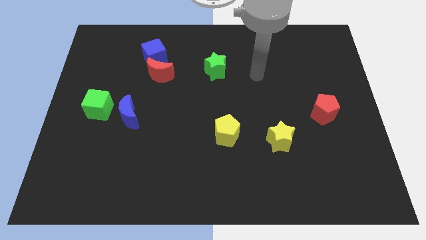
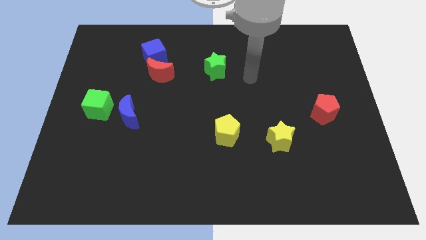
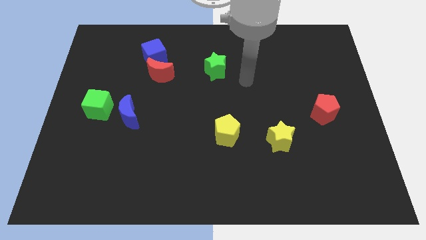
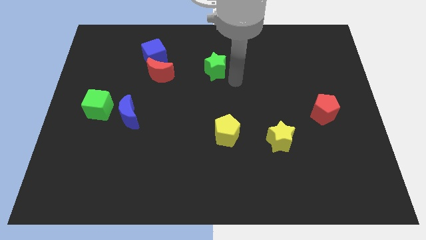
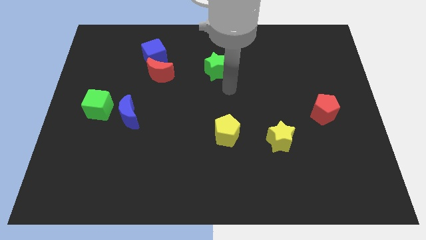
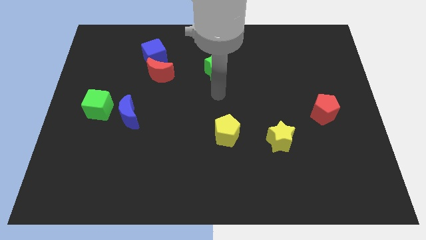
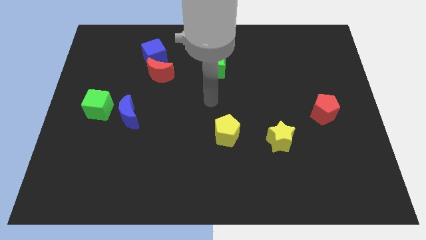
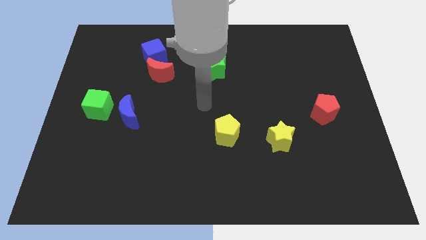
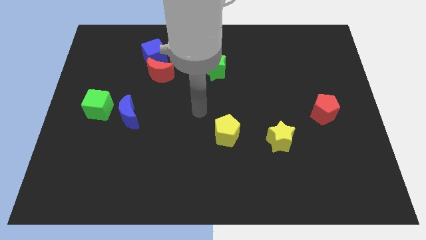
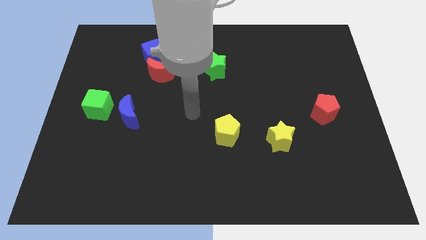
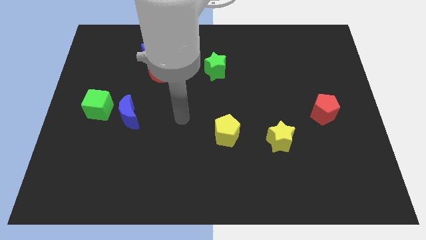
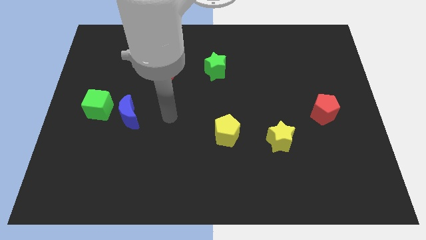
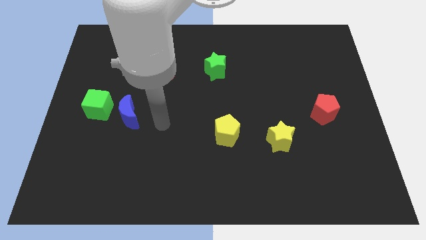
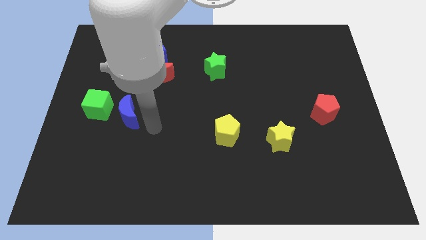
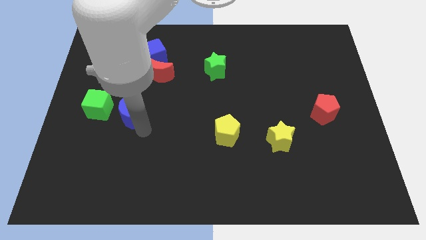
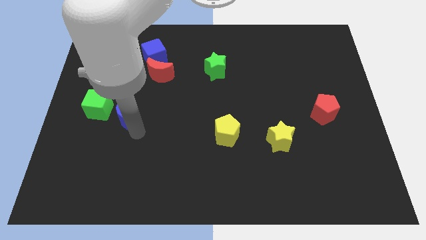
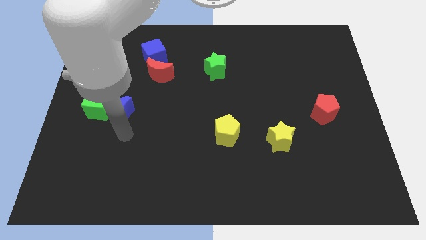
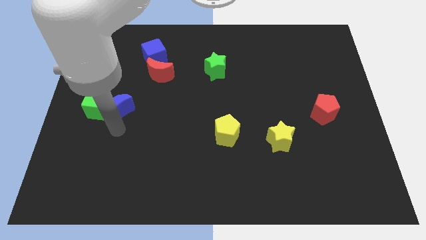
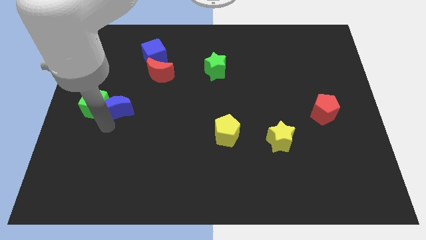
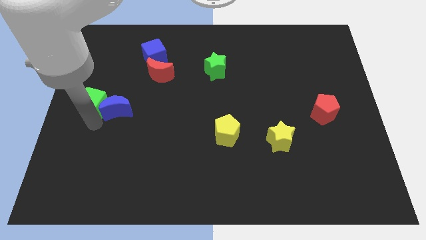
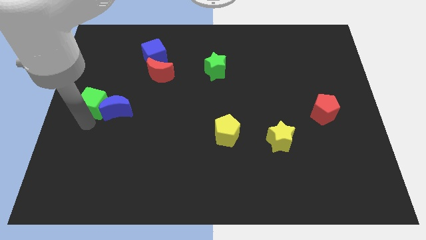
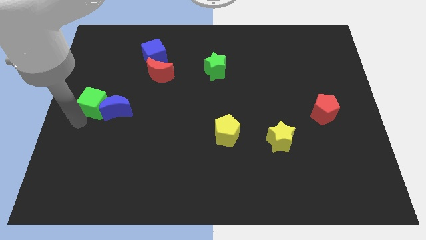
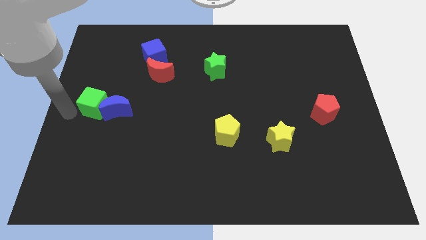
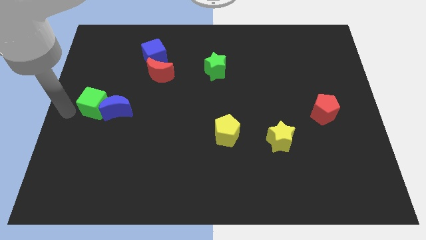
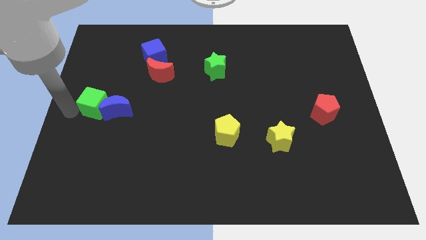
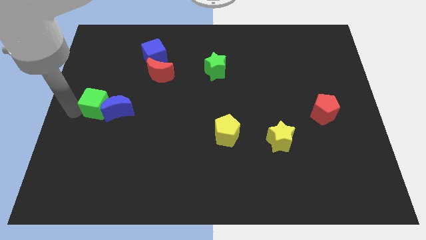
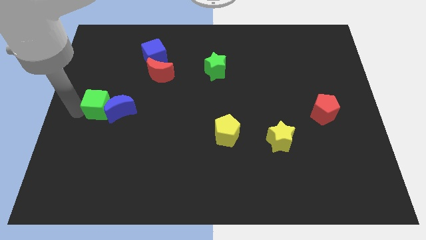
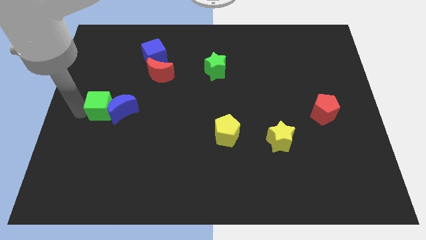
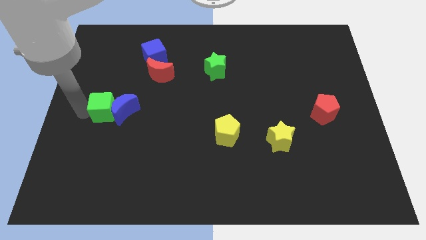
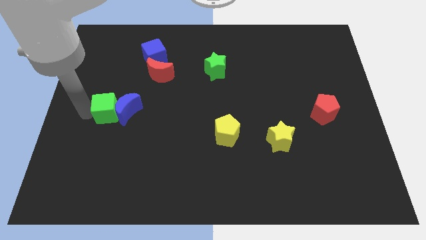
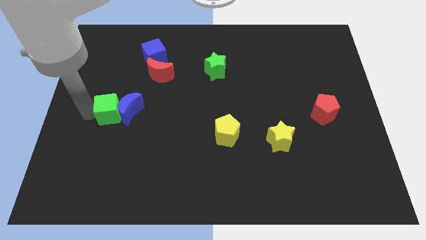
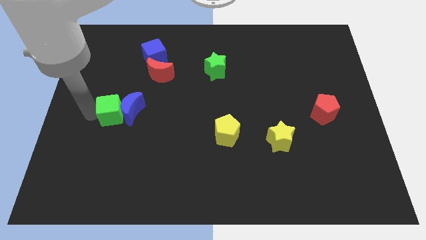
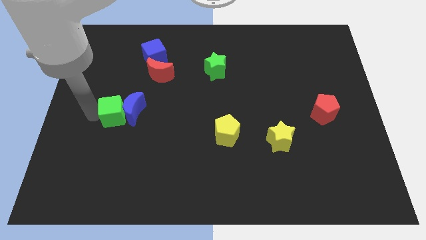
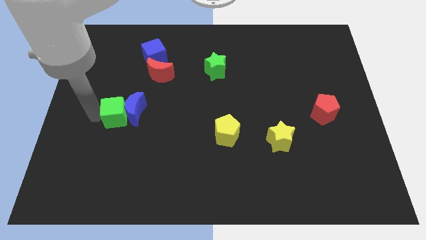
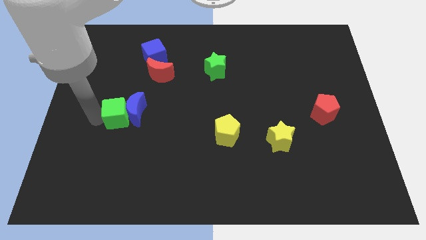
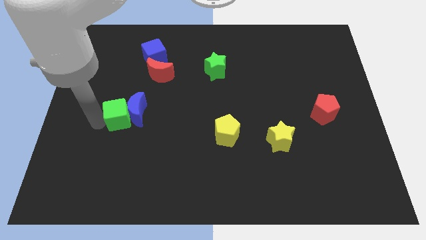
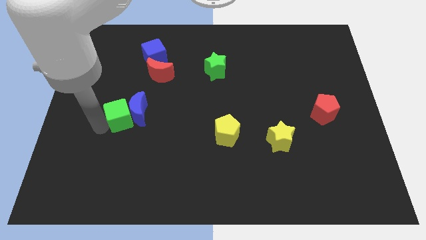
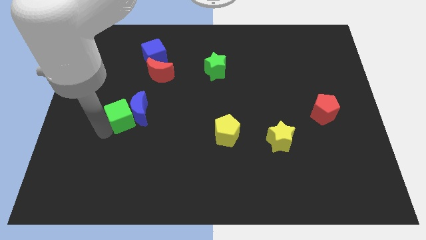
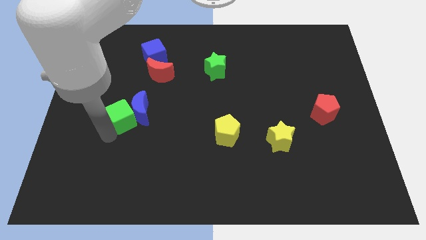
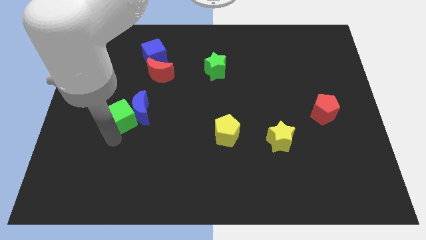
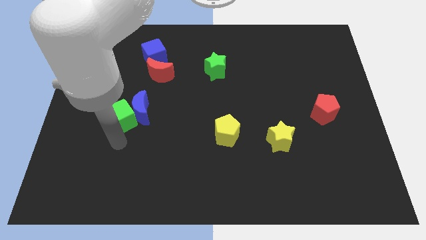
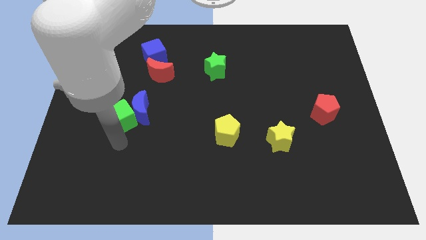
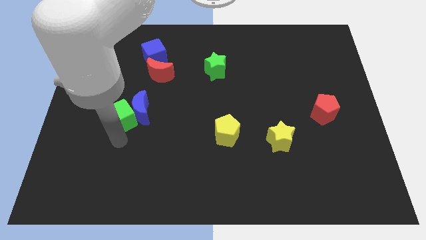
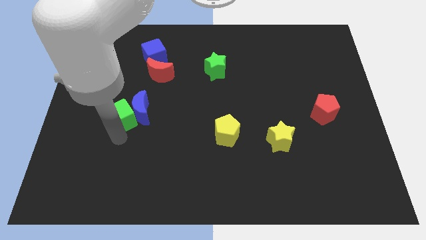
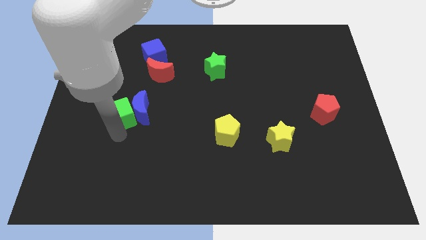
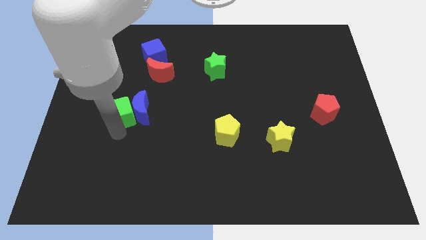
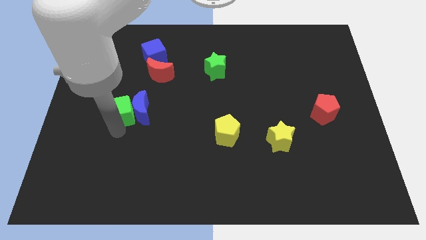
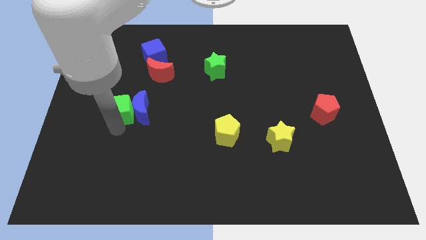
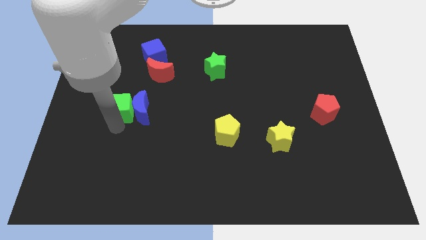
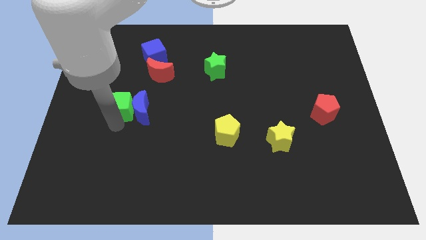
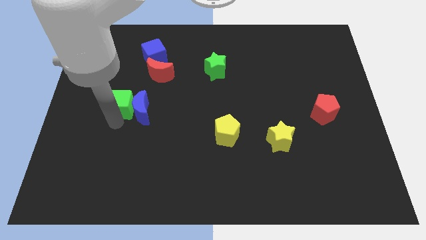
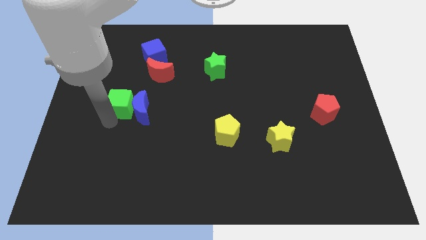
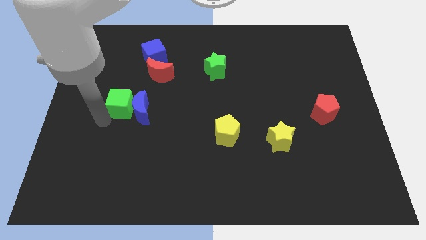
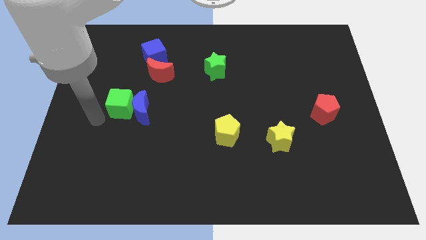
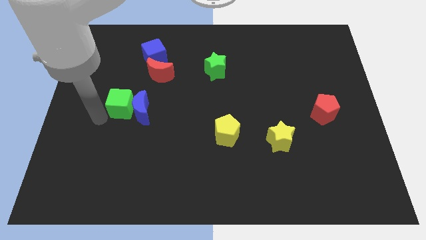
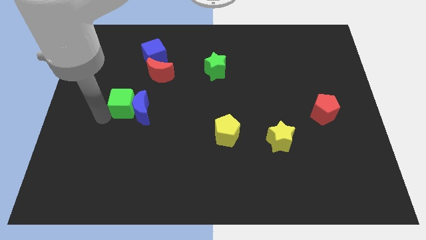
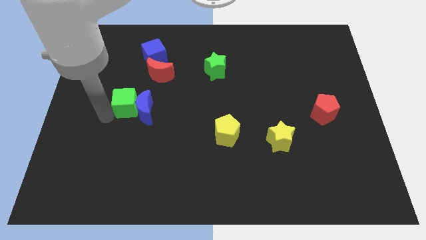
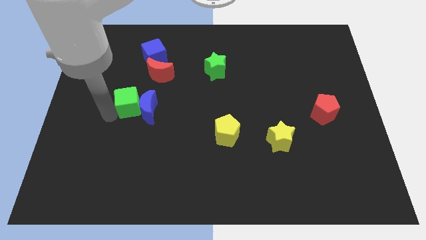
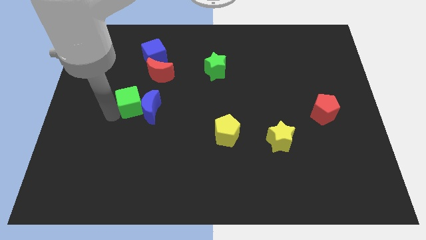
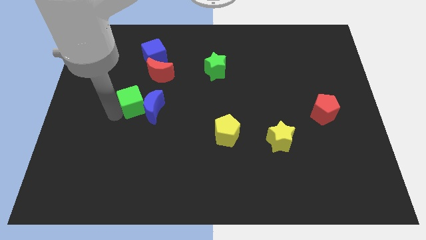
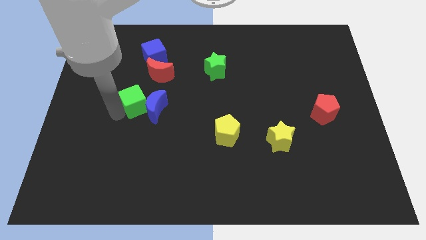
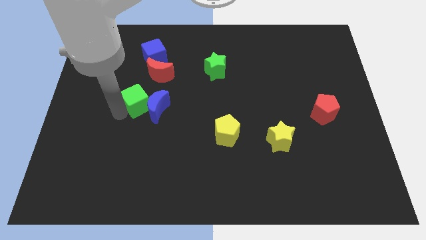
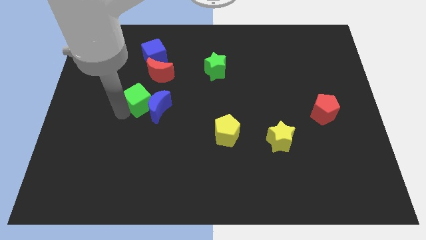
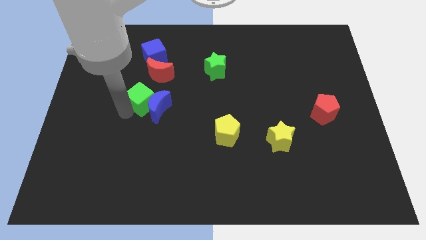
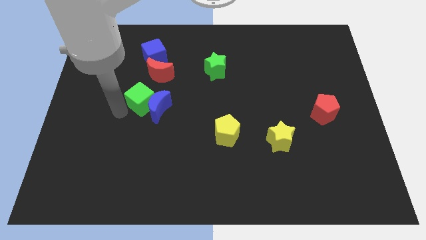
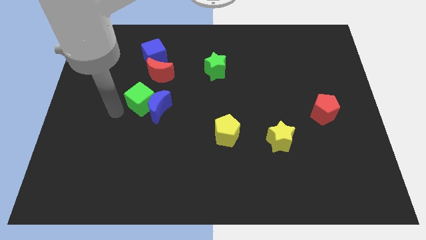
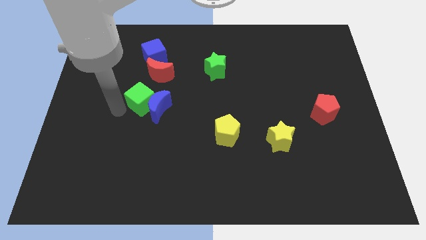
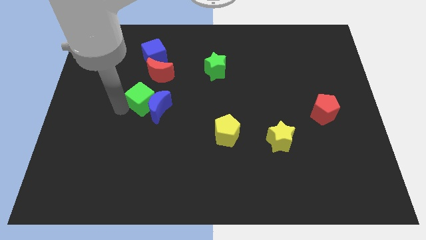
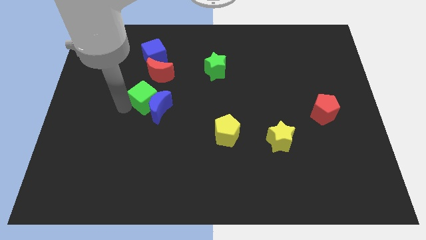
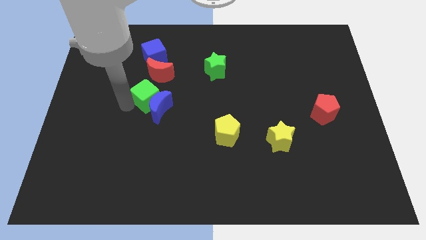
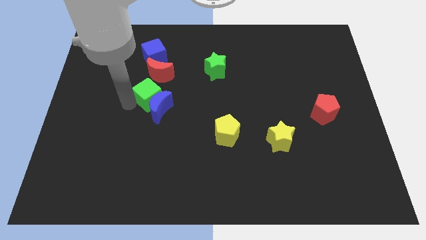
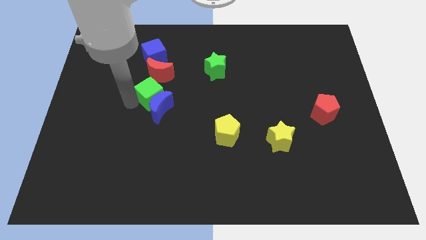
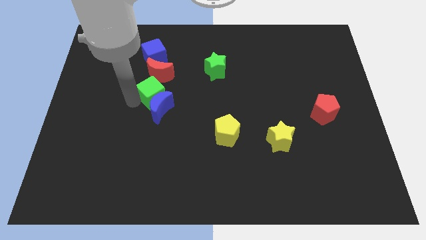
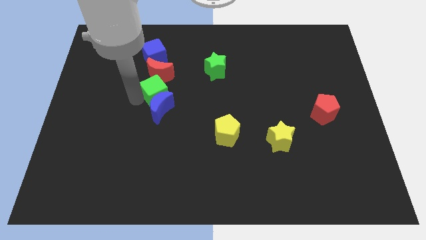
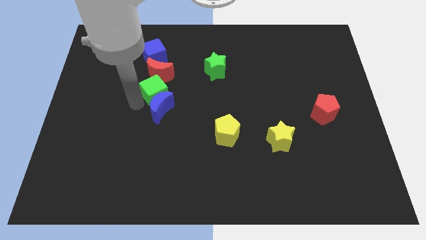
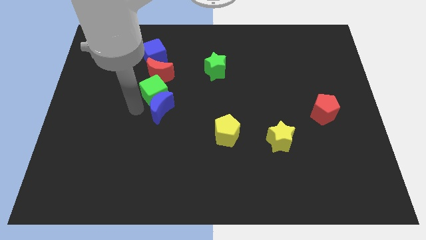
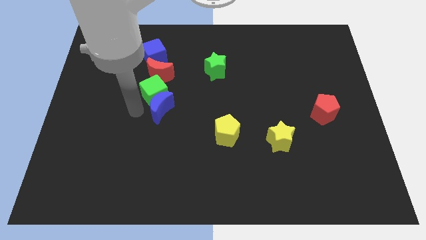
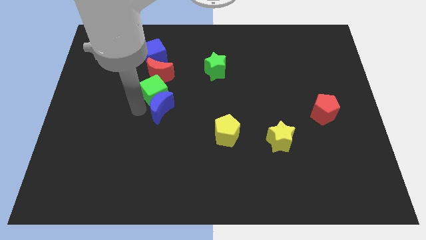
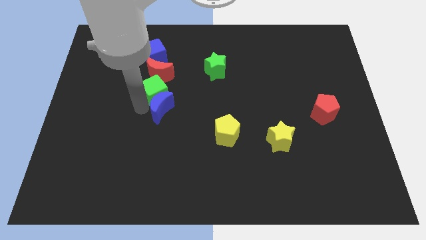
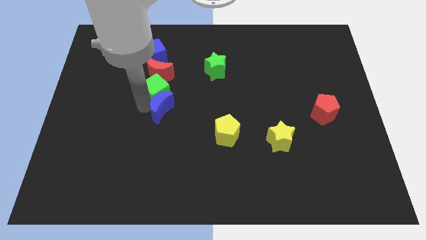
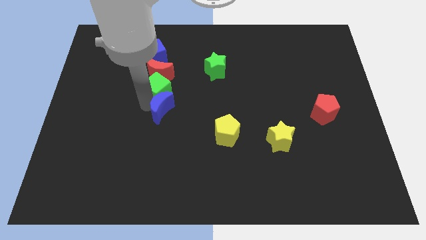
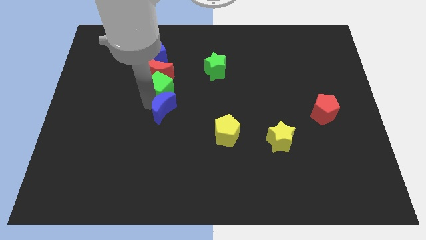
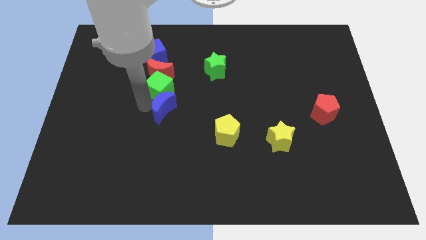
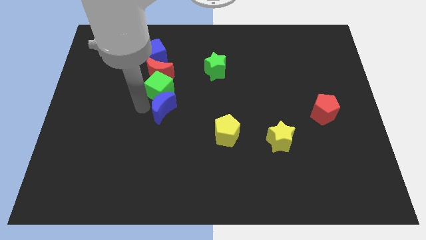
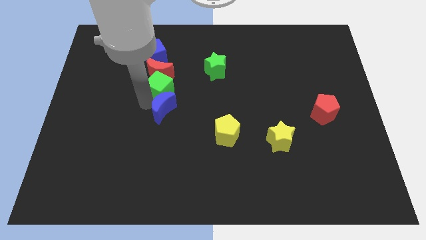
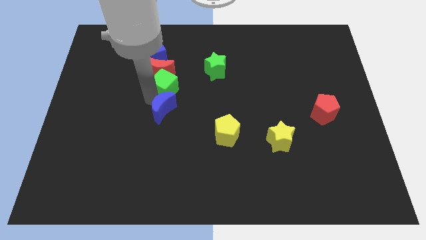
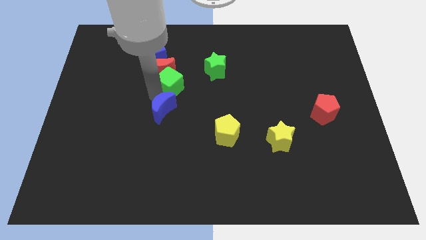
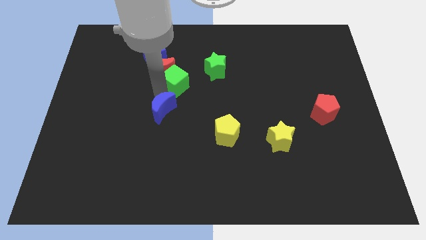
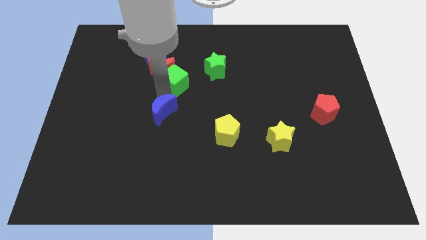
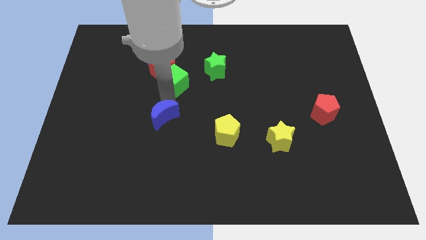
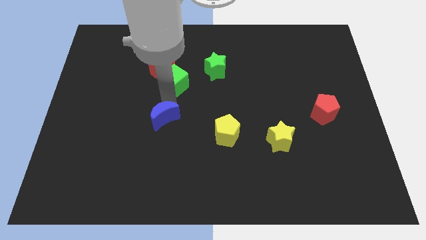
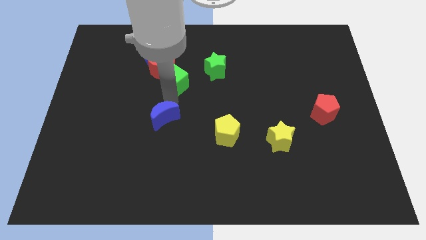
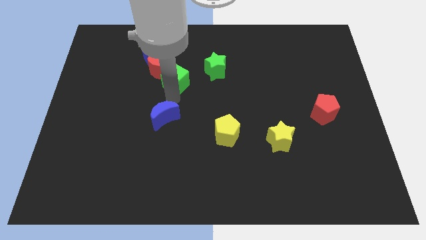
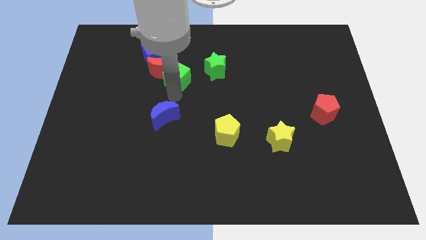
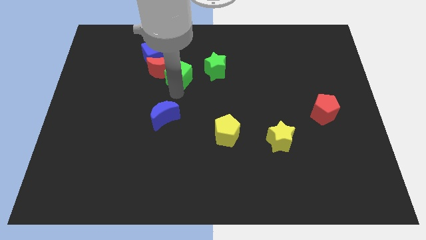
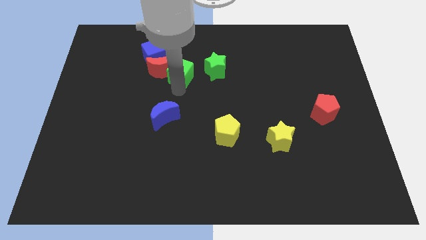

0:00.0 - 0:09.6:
move the green cube diagonally up and to the right of the red moon
